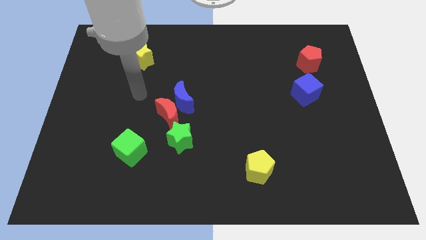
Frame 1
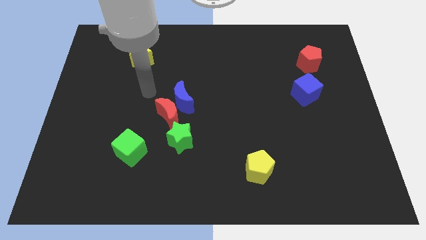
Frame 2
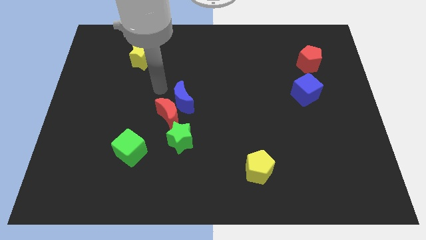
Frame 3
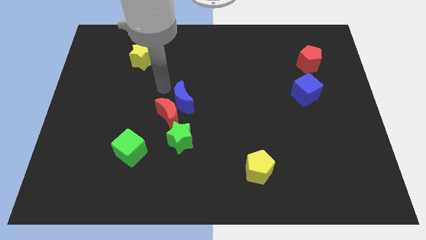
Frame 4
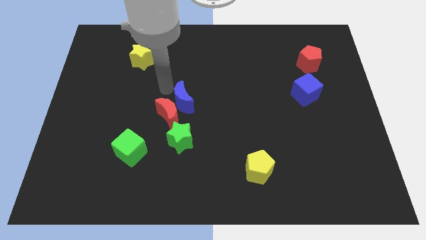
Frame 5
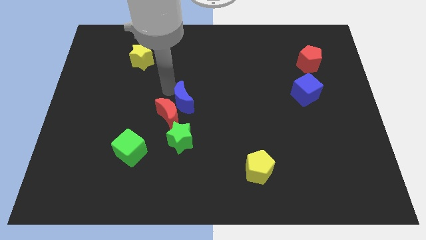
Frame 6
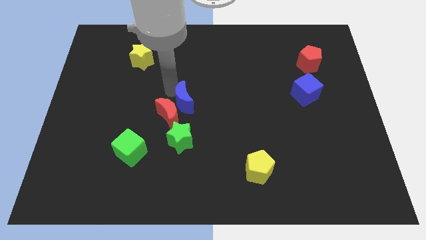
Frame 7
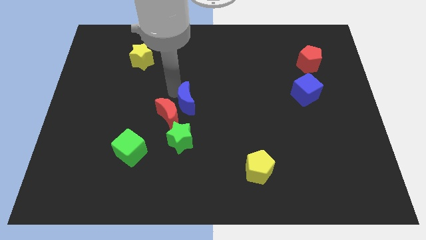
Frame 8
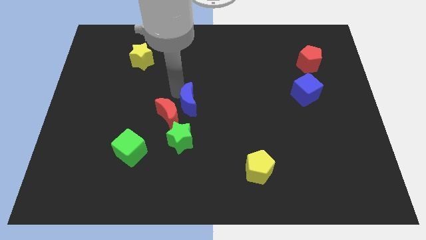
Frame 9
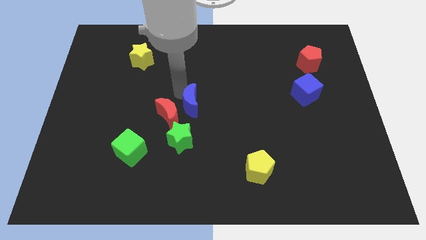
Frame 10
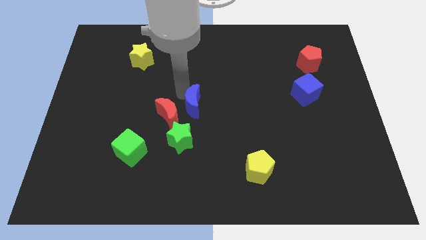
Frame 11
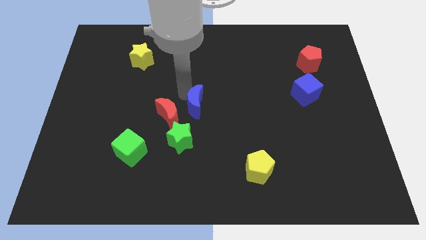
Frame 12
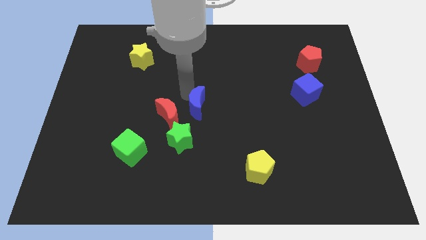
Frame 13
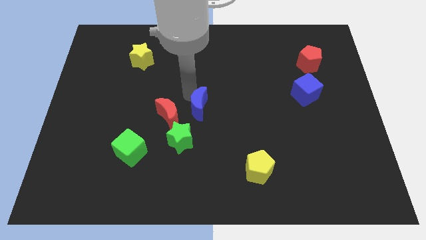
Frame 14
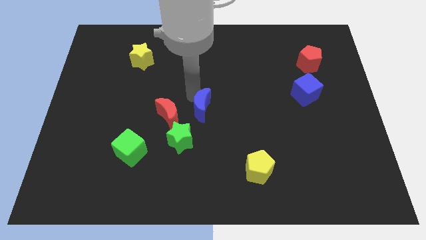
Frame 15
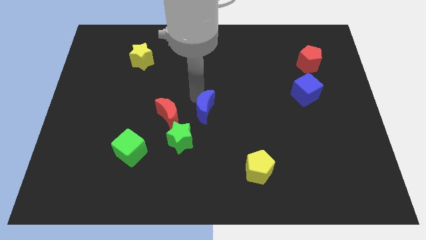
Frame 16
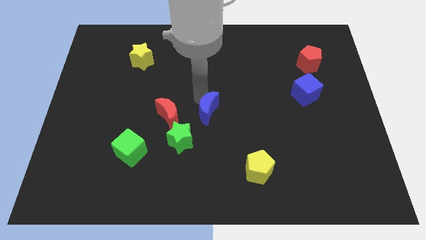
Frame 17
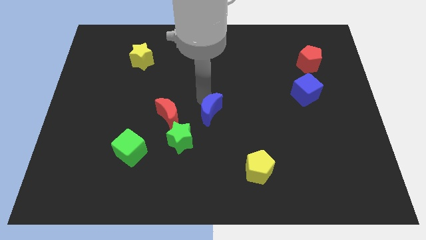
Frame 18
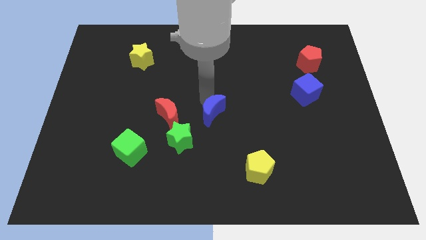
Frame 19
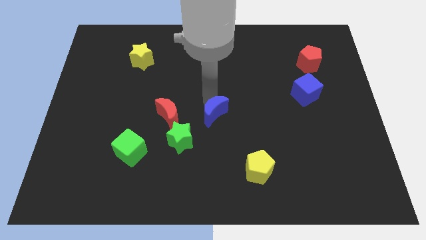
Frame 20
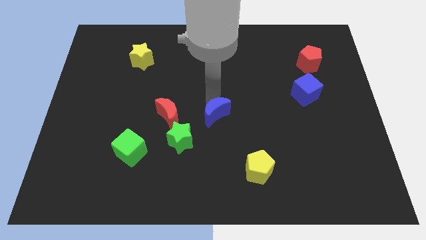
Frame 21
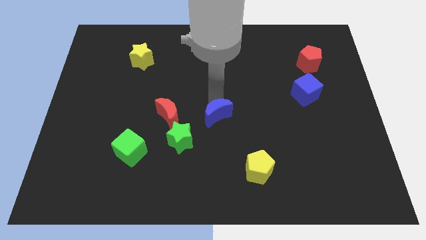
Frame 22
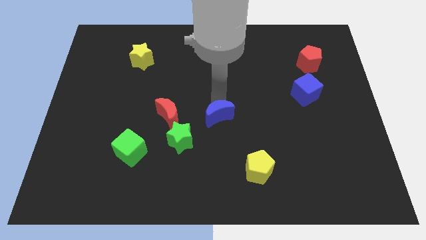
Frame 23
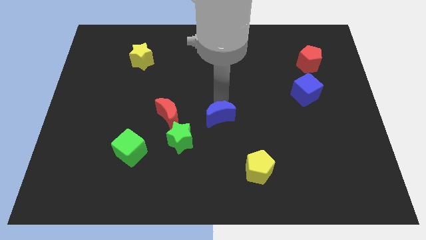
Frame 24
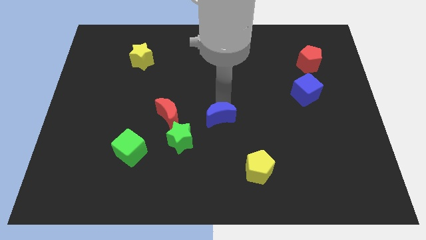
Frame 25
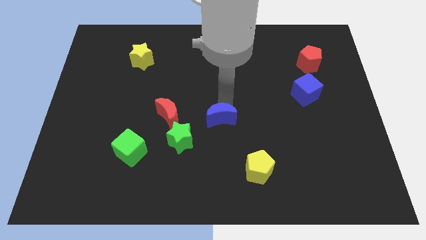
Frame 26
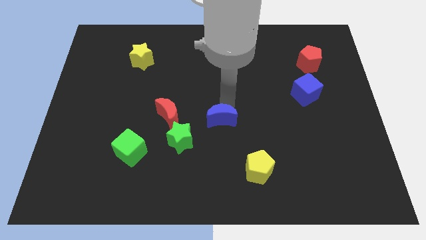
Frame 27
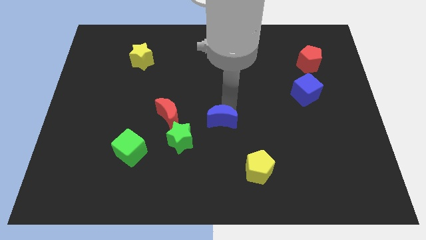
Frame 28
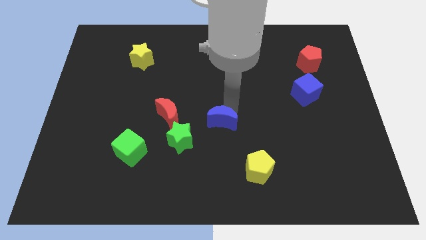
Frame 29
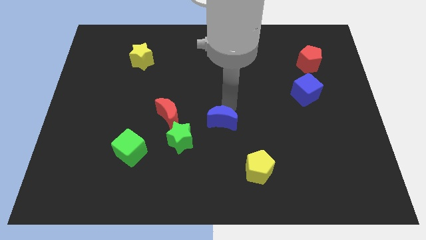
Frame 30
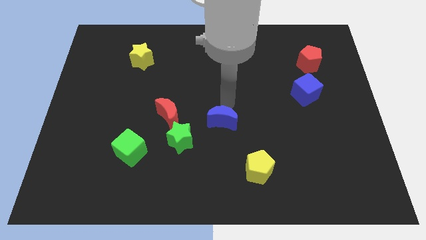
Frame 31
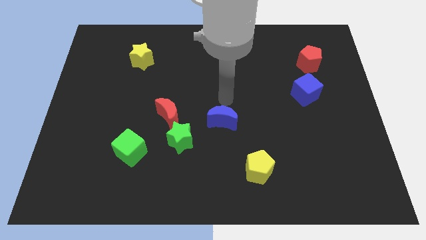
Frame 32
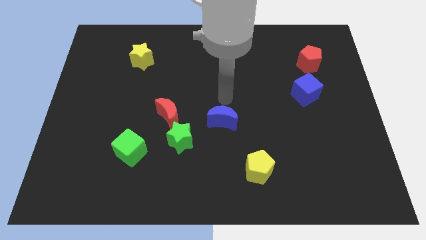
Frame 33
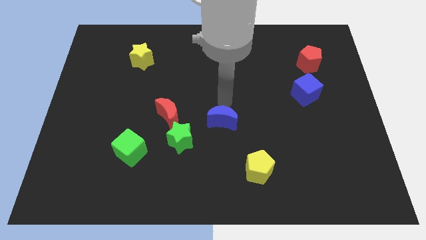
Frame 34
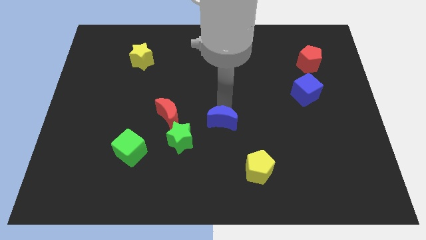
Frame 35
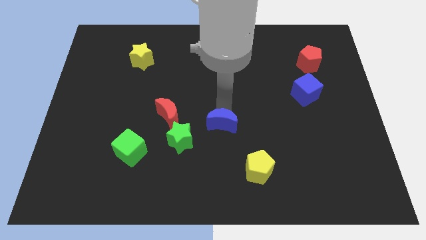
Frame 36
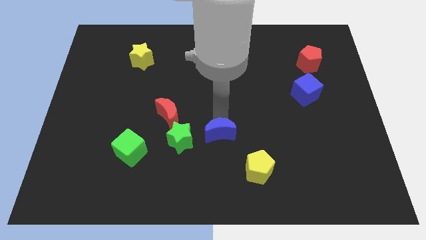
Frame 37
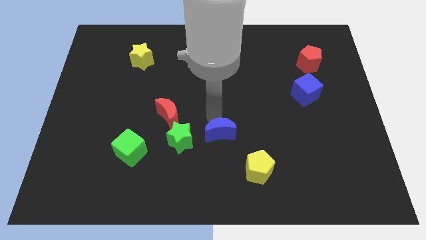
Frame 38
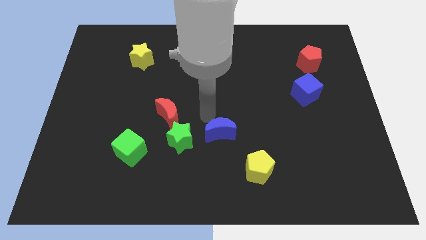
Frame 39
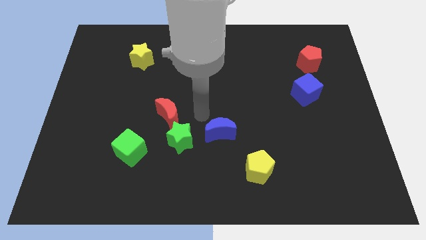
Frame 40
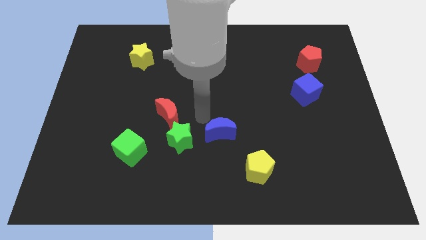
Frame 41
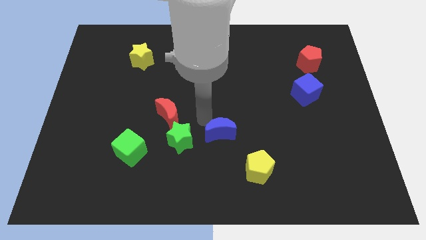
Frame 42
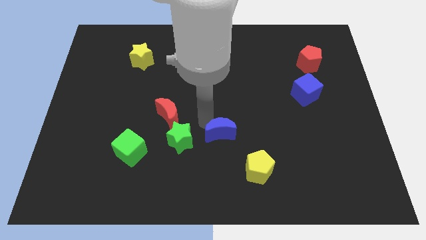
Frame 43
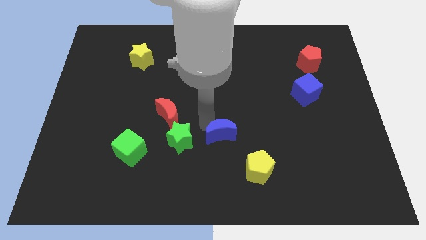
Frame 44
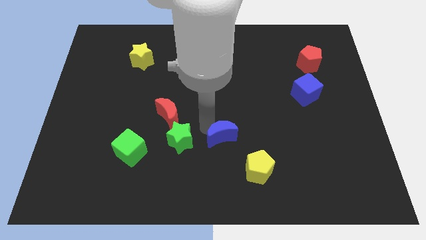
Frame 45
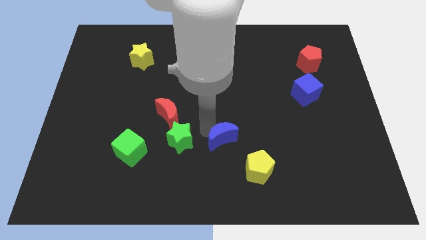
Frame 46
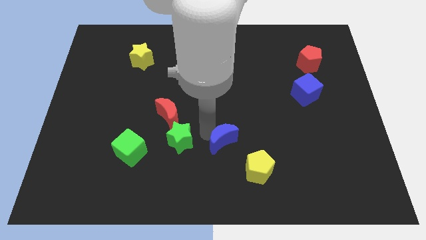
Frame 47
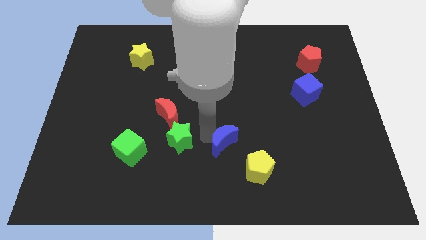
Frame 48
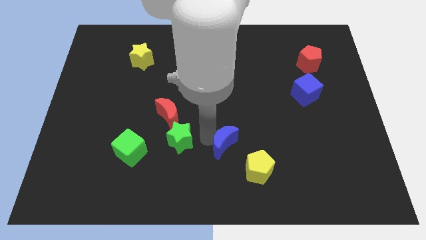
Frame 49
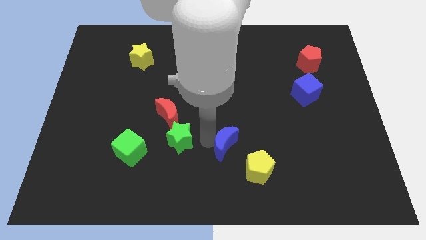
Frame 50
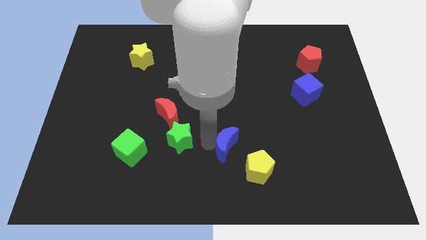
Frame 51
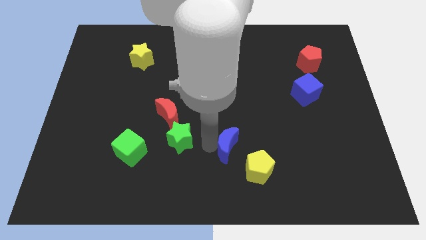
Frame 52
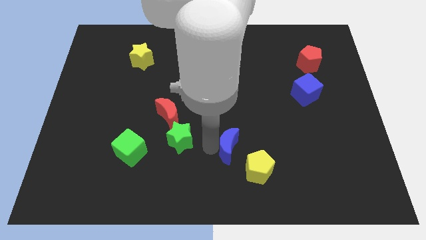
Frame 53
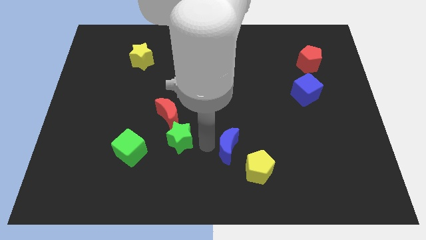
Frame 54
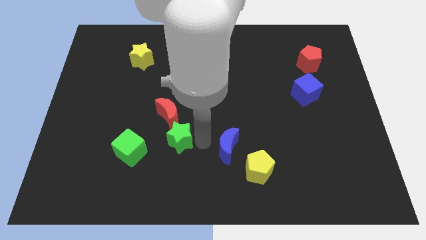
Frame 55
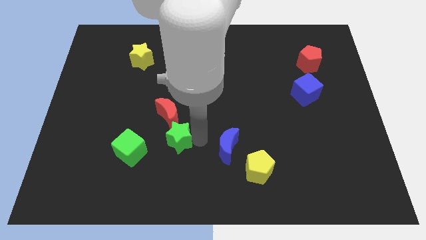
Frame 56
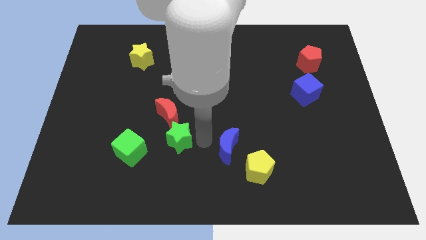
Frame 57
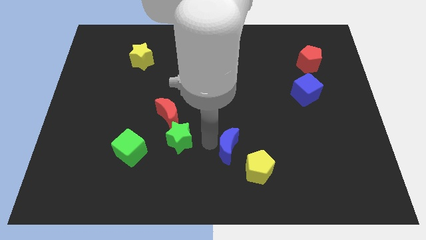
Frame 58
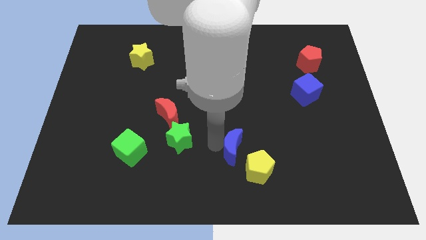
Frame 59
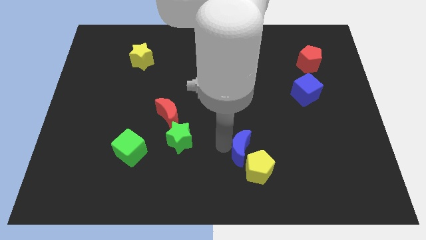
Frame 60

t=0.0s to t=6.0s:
push the blue moon close to the yellow pentagon

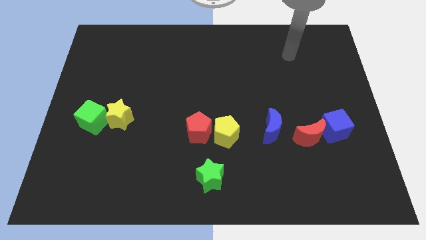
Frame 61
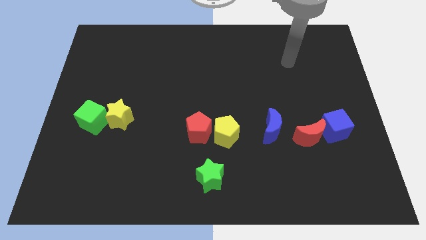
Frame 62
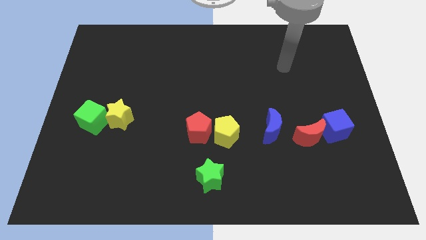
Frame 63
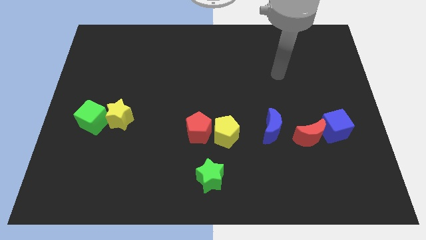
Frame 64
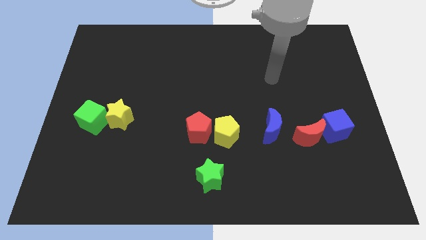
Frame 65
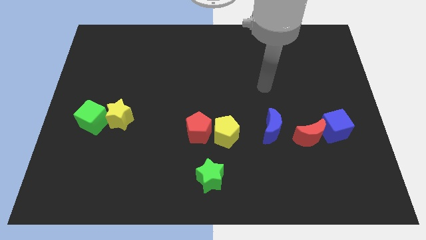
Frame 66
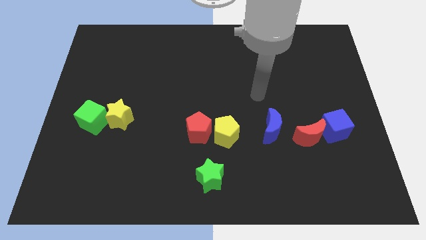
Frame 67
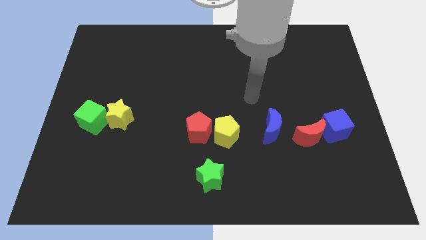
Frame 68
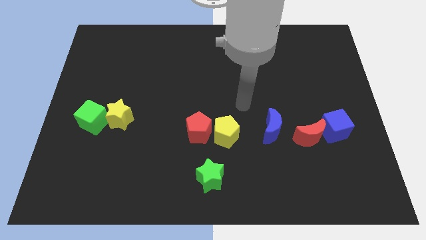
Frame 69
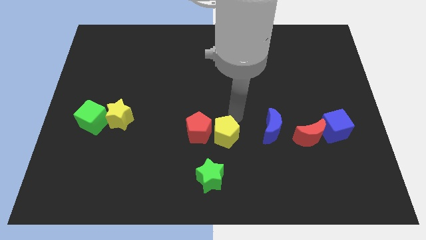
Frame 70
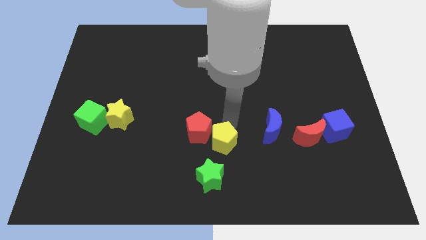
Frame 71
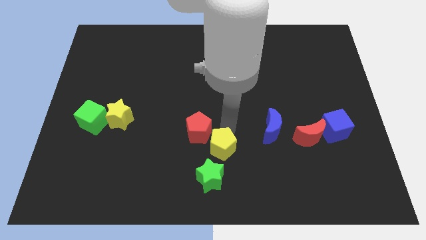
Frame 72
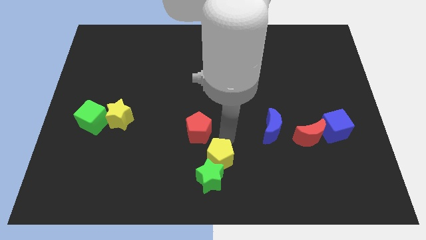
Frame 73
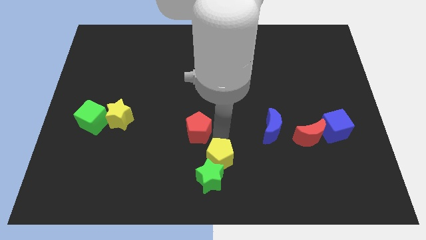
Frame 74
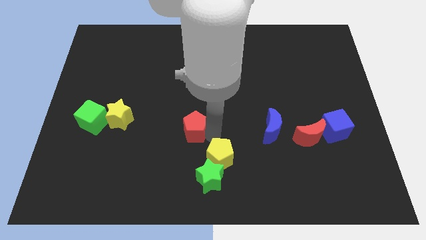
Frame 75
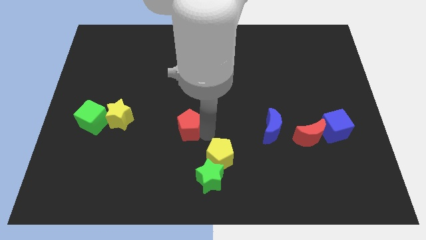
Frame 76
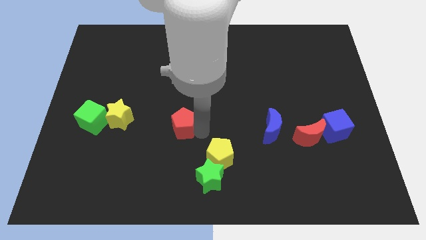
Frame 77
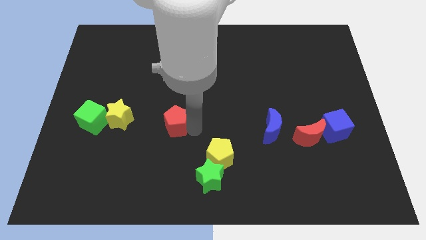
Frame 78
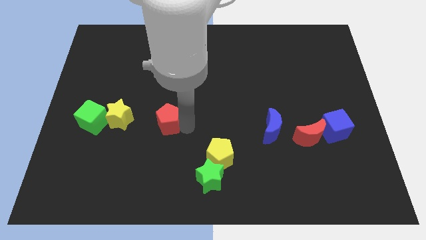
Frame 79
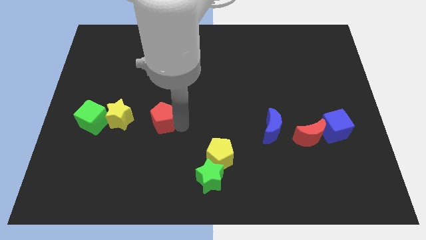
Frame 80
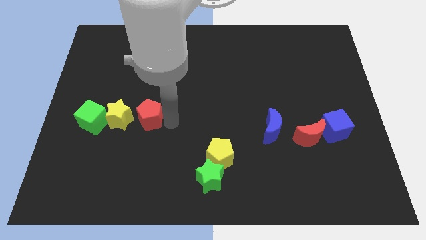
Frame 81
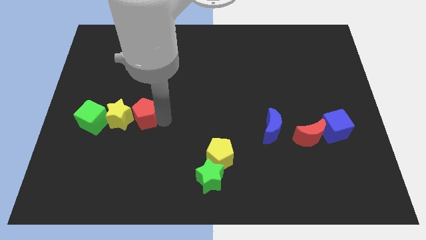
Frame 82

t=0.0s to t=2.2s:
put the red pentagon to the yellow star
